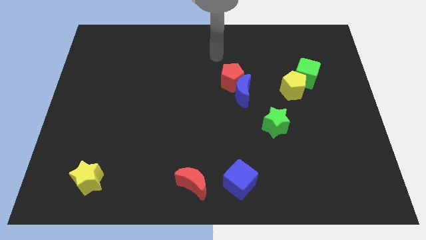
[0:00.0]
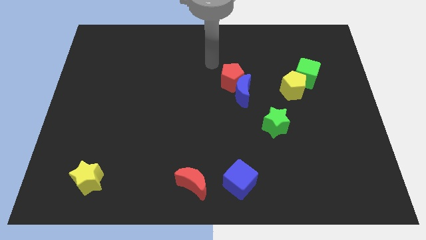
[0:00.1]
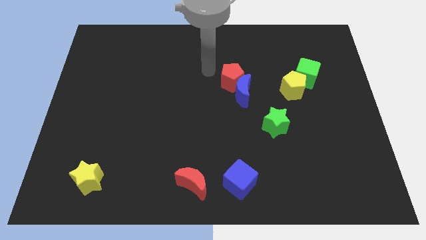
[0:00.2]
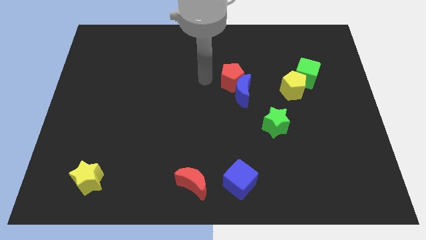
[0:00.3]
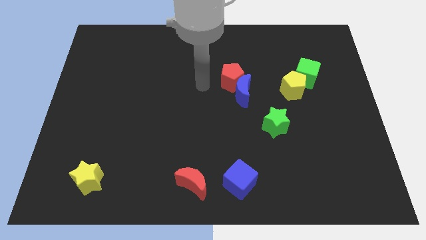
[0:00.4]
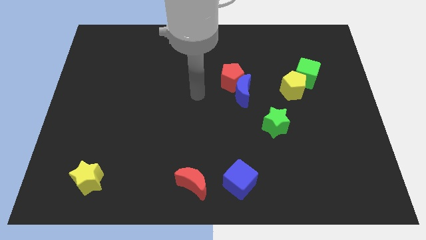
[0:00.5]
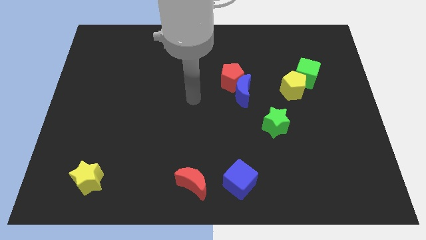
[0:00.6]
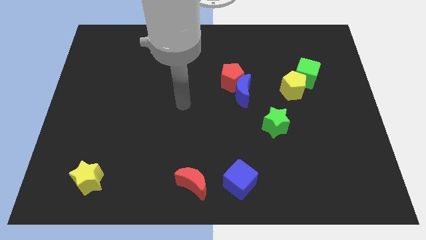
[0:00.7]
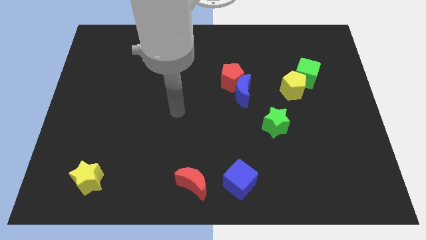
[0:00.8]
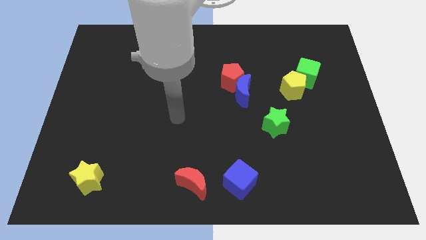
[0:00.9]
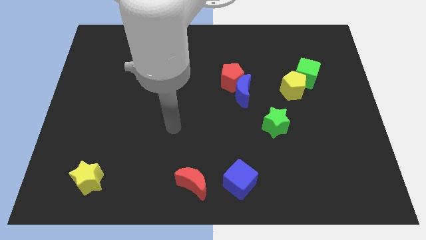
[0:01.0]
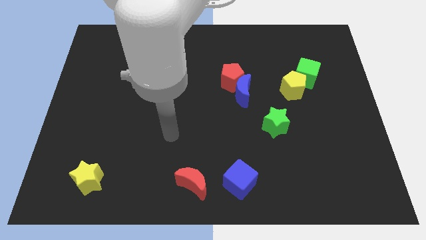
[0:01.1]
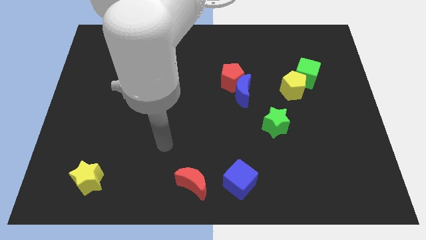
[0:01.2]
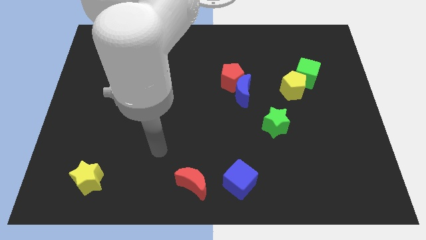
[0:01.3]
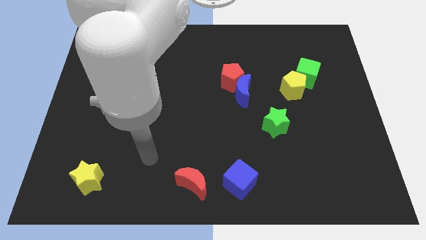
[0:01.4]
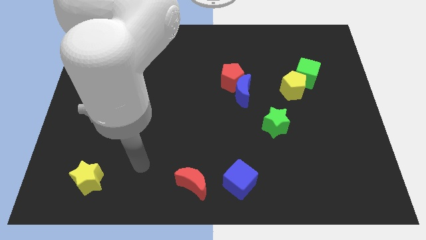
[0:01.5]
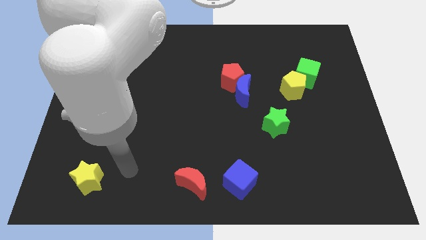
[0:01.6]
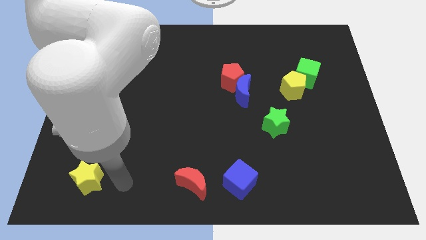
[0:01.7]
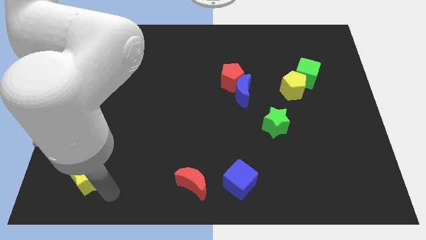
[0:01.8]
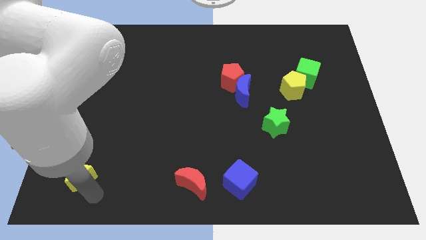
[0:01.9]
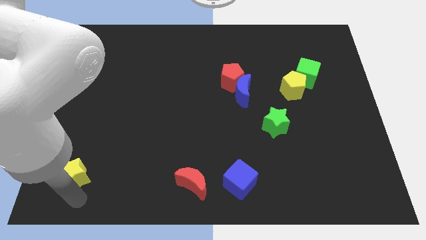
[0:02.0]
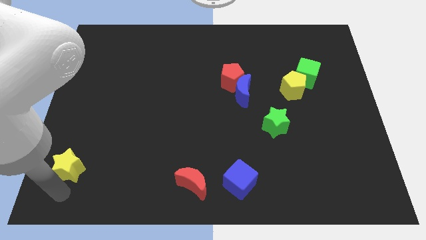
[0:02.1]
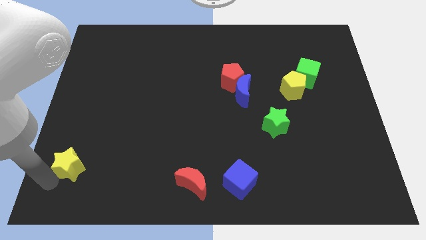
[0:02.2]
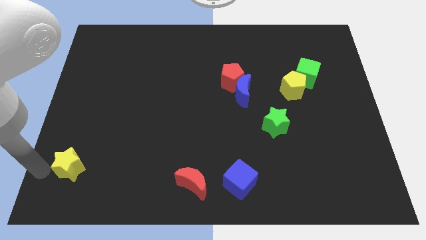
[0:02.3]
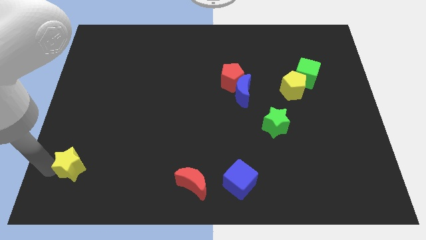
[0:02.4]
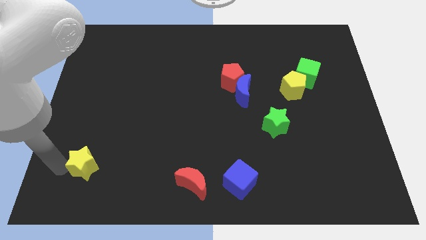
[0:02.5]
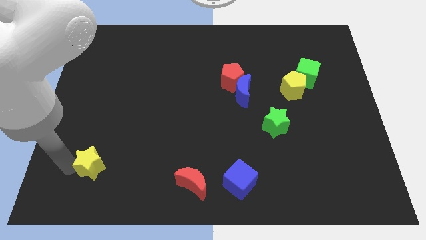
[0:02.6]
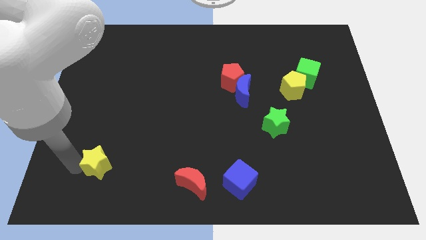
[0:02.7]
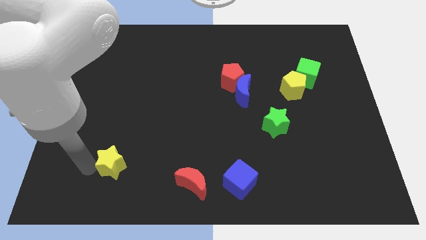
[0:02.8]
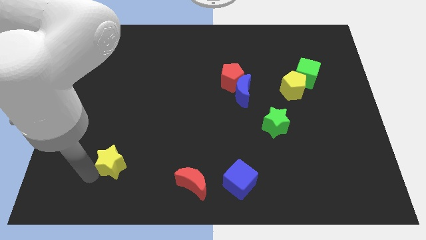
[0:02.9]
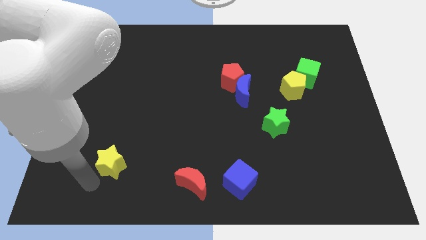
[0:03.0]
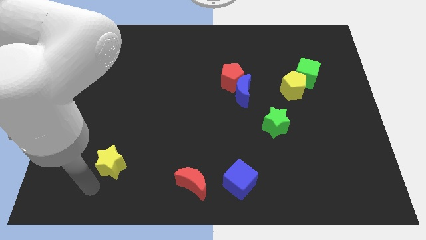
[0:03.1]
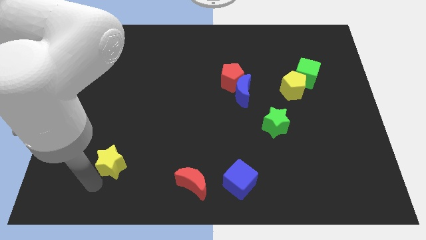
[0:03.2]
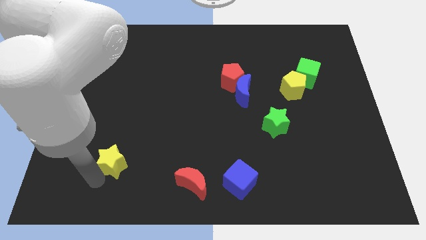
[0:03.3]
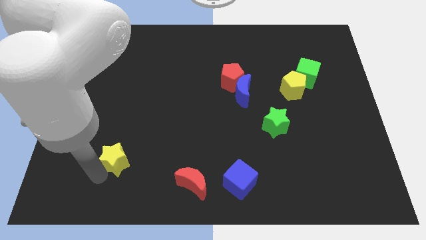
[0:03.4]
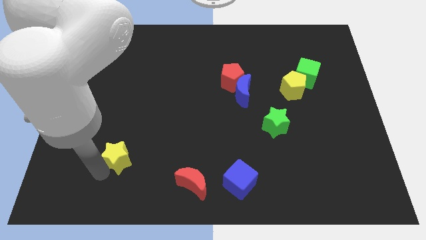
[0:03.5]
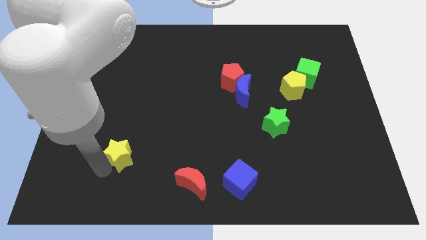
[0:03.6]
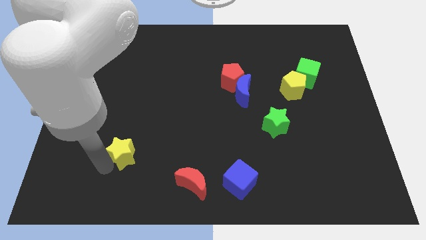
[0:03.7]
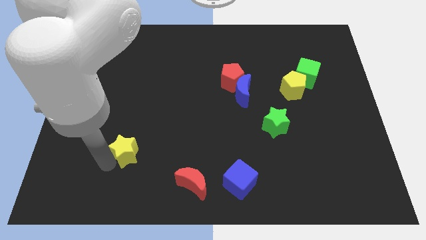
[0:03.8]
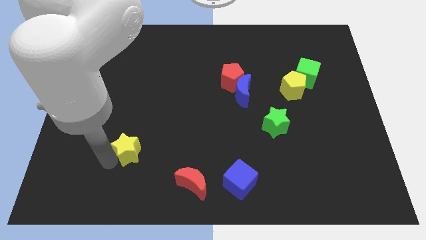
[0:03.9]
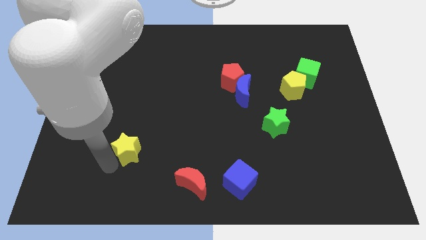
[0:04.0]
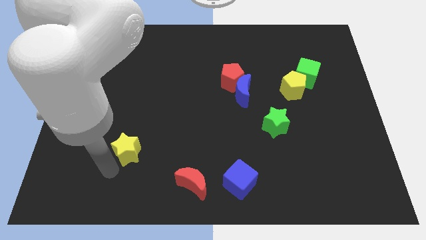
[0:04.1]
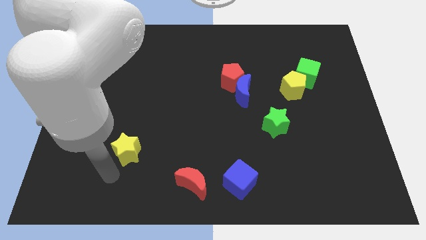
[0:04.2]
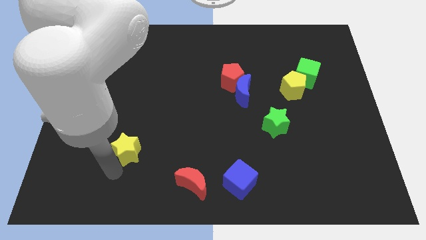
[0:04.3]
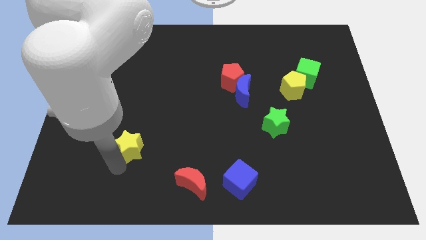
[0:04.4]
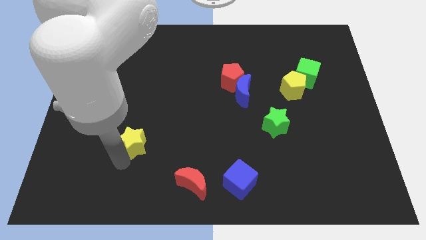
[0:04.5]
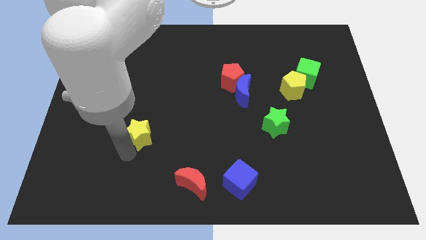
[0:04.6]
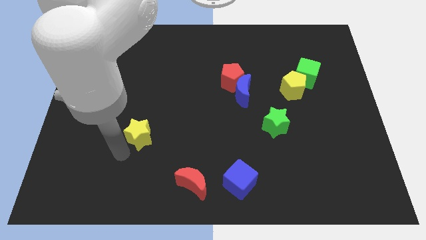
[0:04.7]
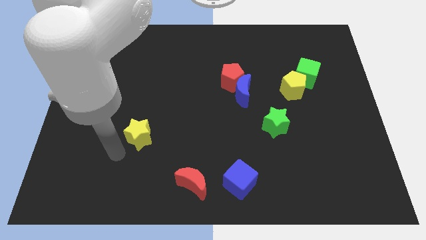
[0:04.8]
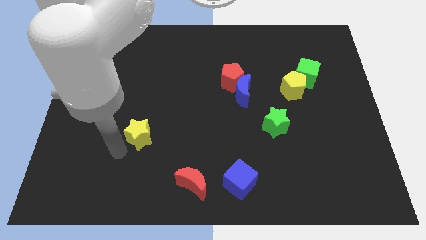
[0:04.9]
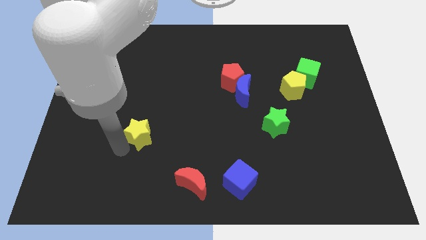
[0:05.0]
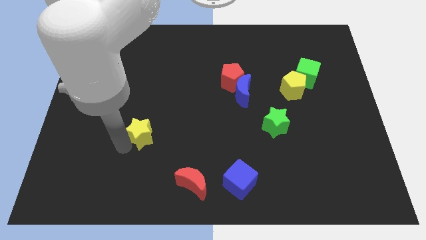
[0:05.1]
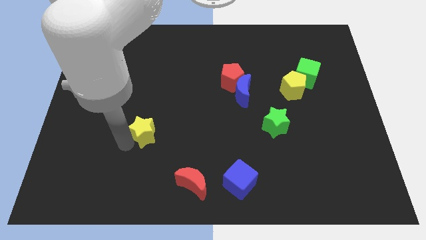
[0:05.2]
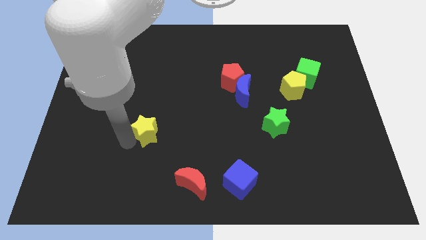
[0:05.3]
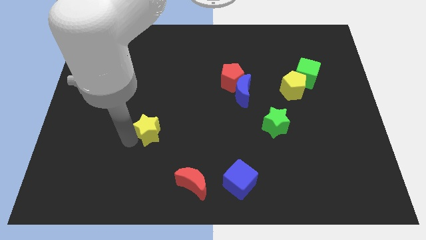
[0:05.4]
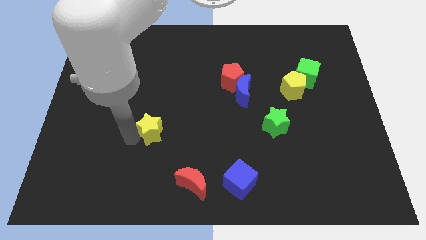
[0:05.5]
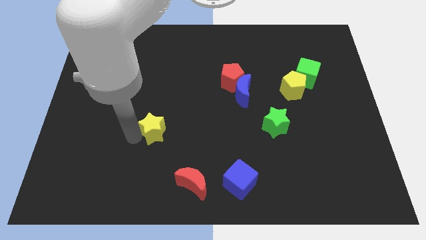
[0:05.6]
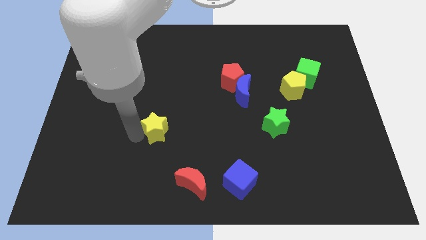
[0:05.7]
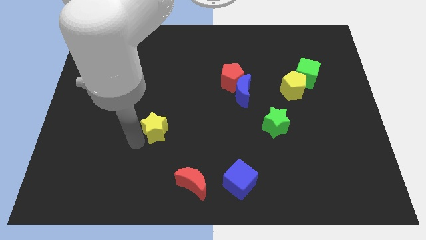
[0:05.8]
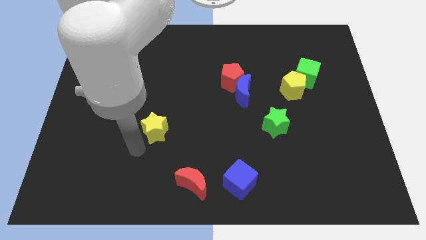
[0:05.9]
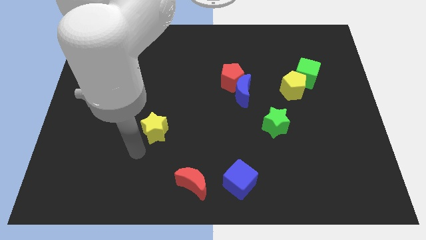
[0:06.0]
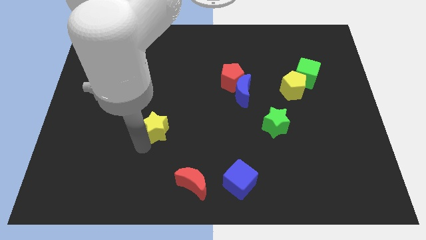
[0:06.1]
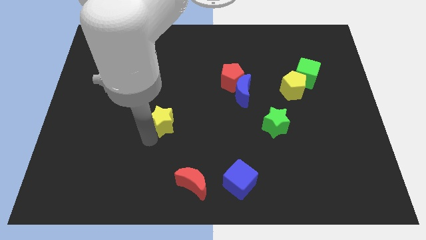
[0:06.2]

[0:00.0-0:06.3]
move the yellow star up and to the right

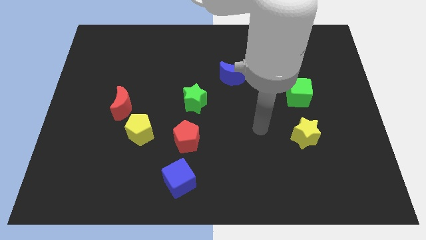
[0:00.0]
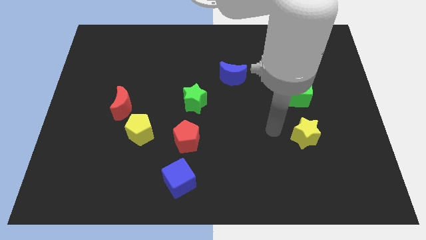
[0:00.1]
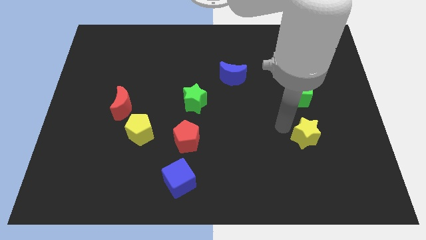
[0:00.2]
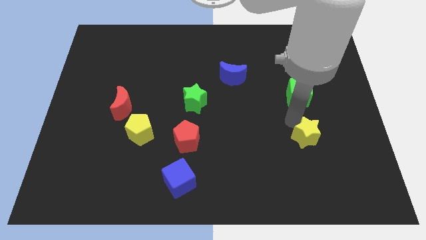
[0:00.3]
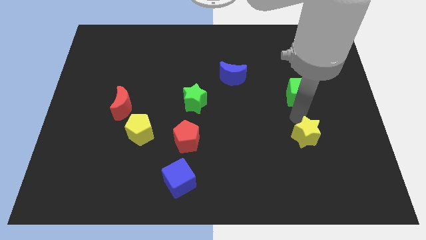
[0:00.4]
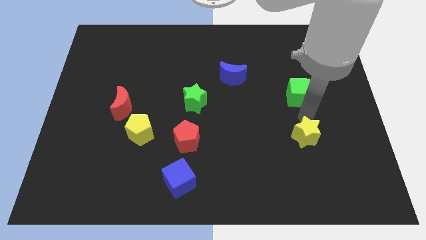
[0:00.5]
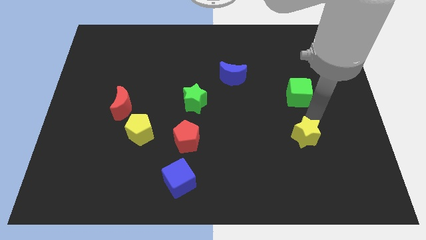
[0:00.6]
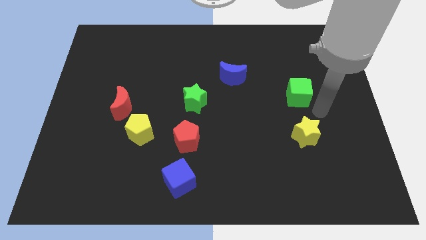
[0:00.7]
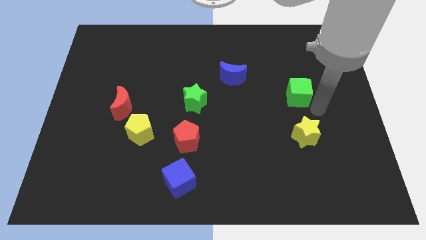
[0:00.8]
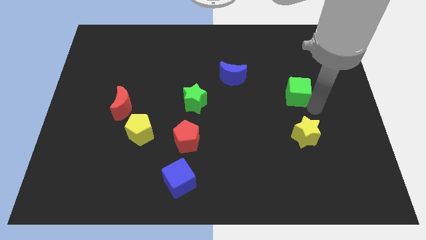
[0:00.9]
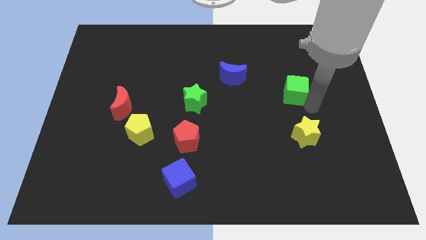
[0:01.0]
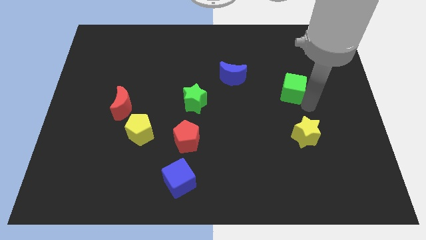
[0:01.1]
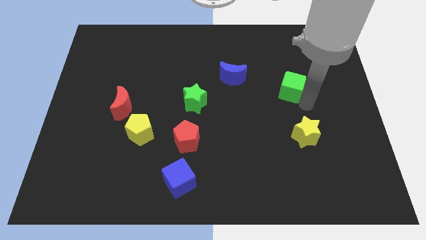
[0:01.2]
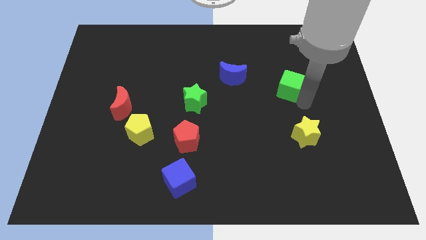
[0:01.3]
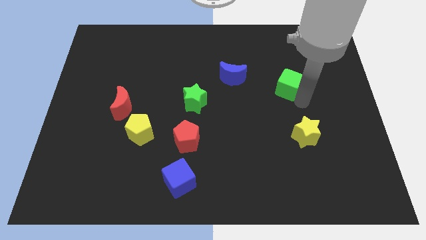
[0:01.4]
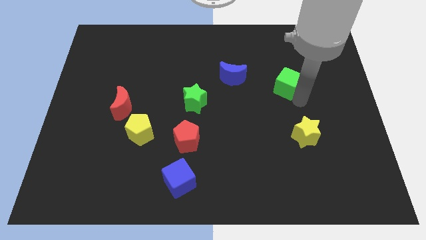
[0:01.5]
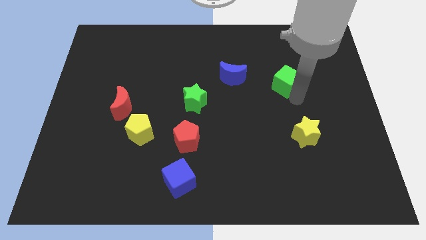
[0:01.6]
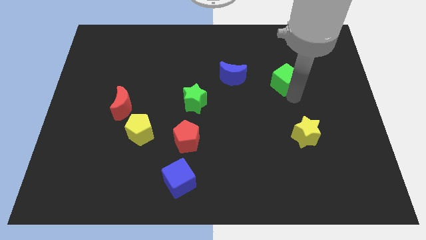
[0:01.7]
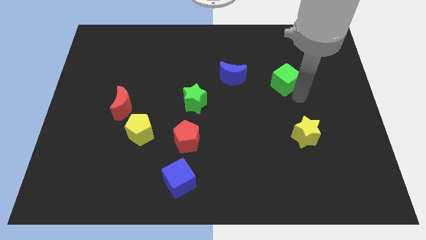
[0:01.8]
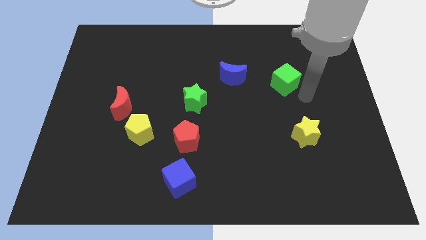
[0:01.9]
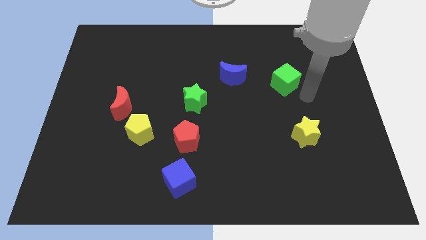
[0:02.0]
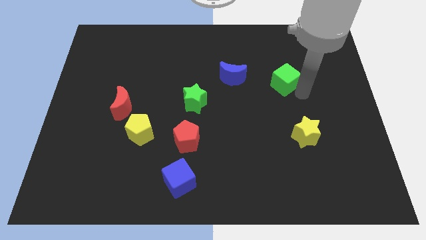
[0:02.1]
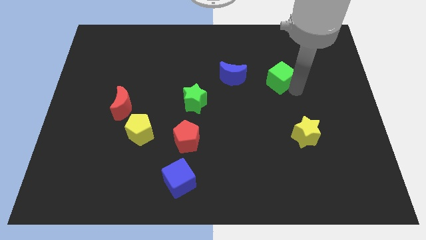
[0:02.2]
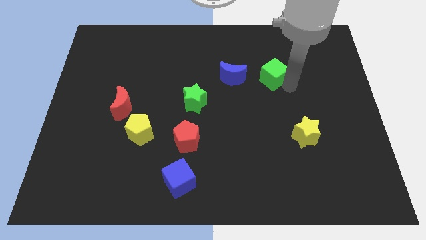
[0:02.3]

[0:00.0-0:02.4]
move the green cube upwards and to the left diagonally somewhat
